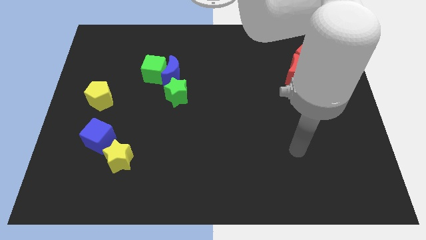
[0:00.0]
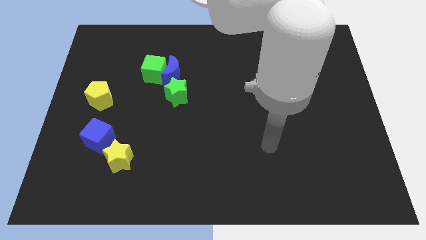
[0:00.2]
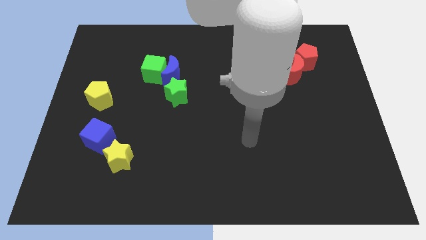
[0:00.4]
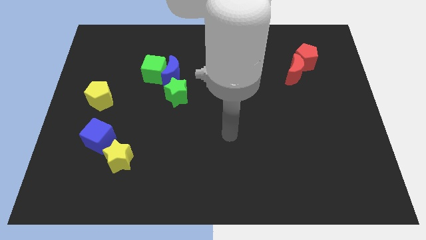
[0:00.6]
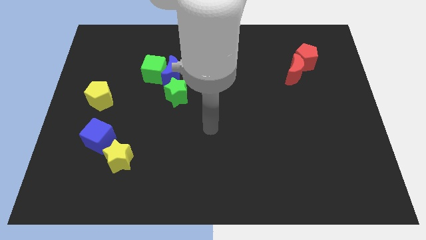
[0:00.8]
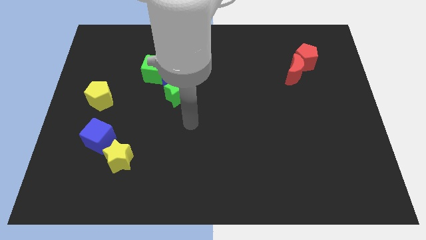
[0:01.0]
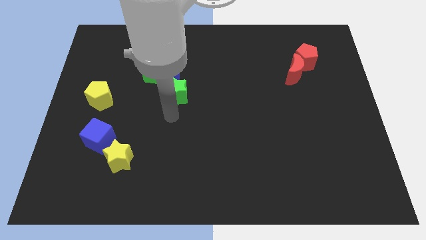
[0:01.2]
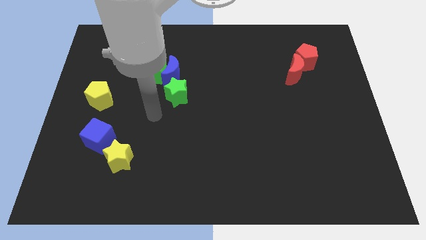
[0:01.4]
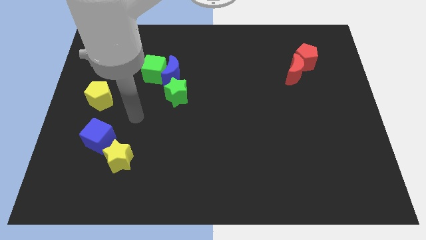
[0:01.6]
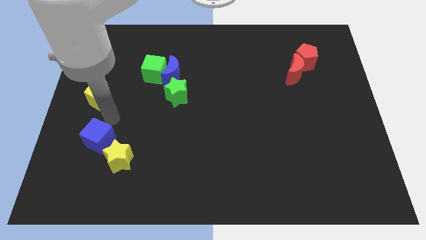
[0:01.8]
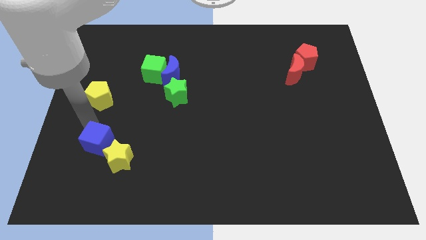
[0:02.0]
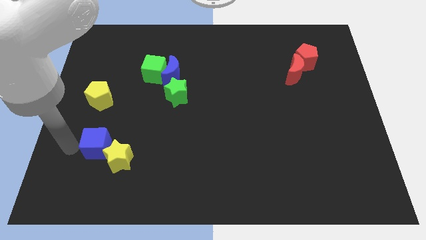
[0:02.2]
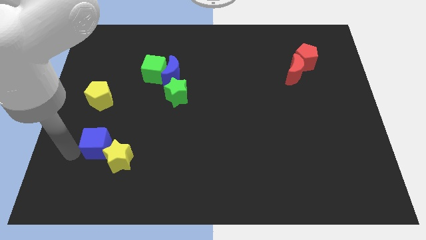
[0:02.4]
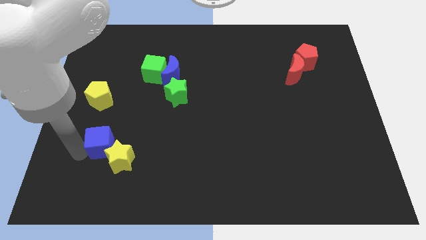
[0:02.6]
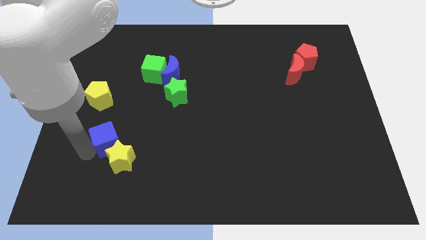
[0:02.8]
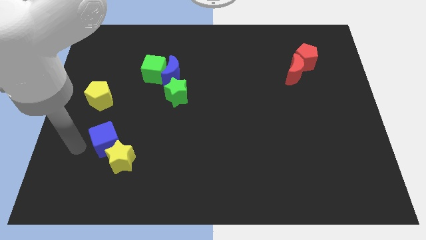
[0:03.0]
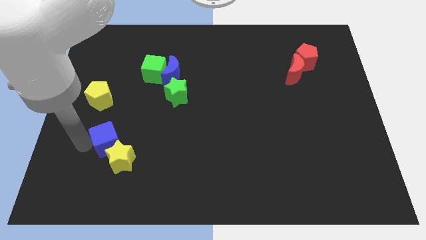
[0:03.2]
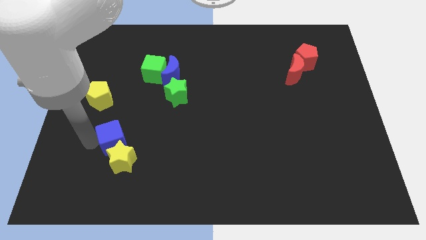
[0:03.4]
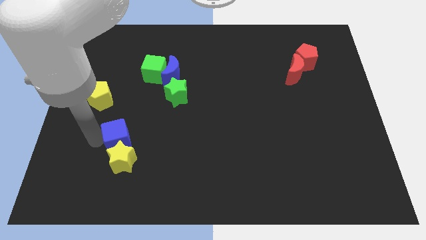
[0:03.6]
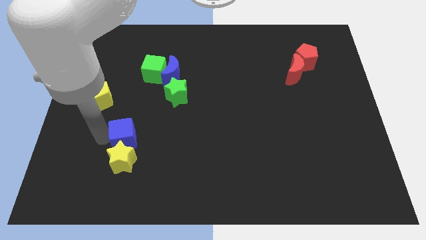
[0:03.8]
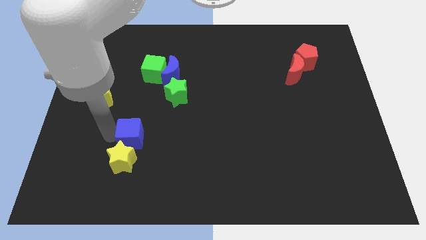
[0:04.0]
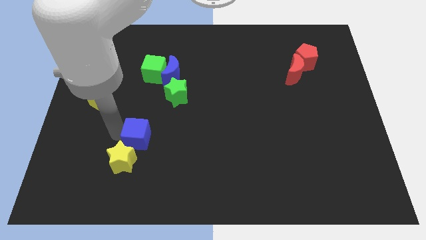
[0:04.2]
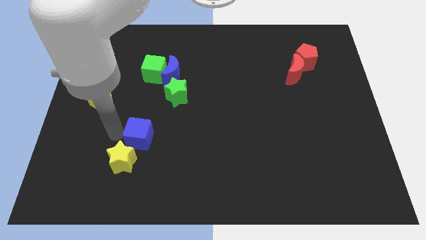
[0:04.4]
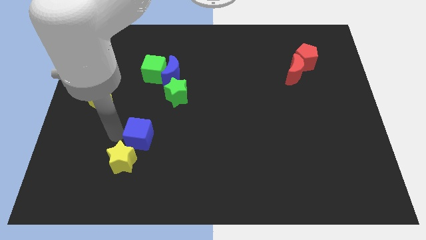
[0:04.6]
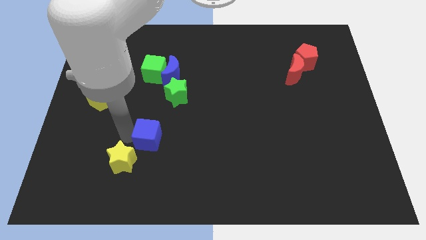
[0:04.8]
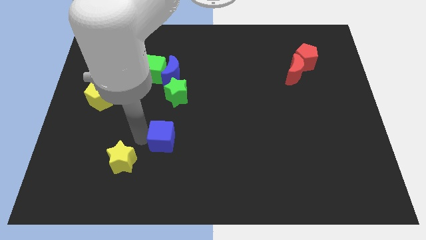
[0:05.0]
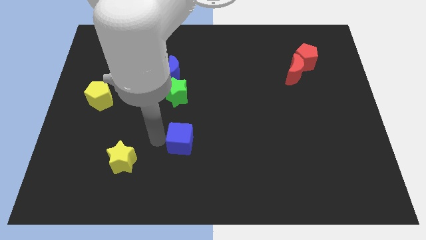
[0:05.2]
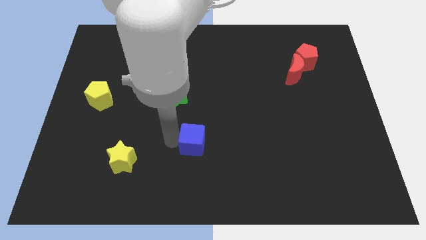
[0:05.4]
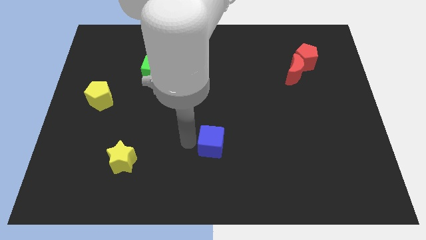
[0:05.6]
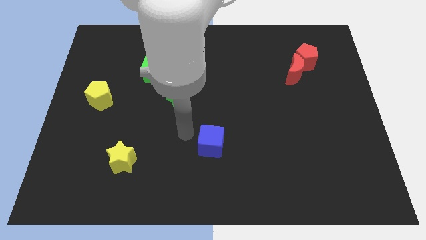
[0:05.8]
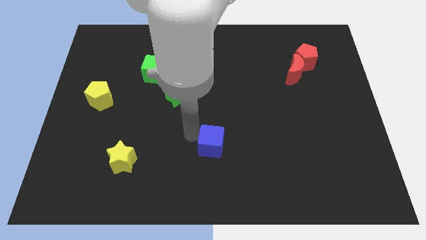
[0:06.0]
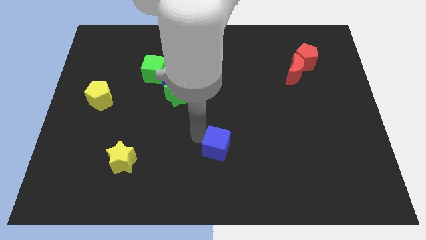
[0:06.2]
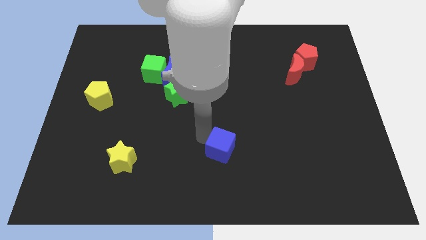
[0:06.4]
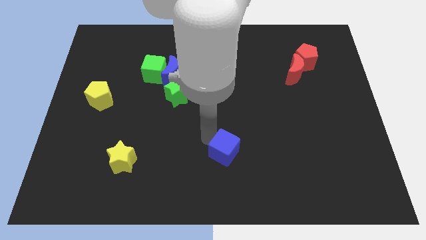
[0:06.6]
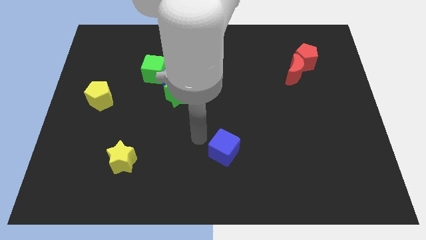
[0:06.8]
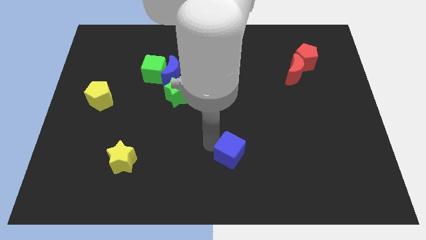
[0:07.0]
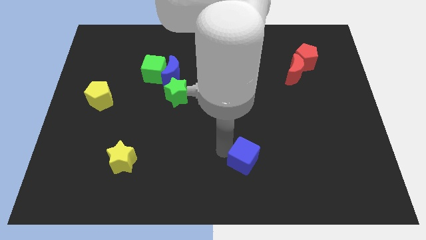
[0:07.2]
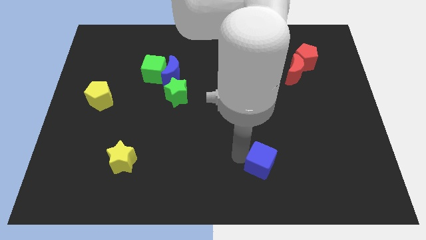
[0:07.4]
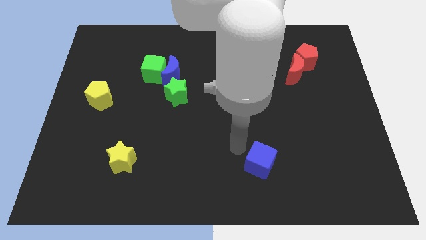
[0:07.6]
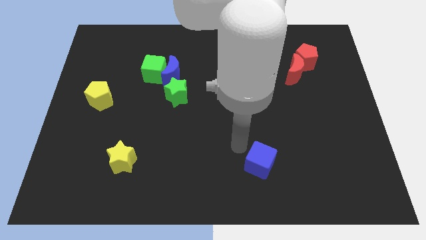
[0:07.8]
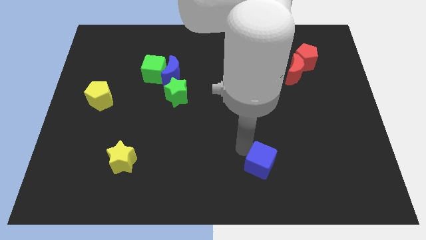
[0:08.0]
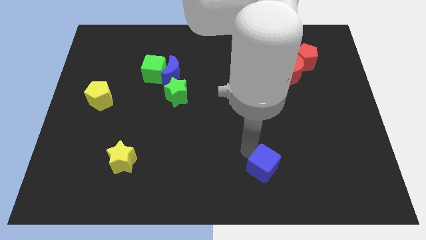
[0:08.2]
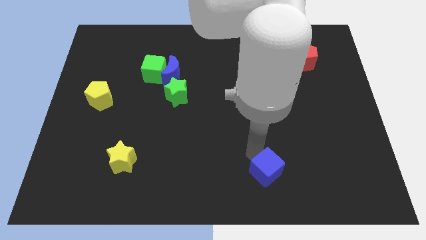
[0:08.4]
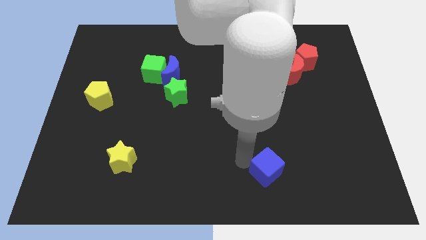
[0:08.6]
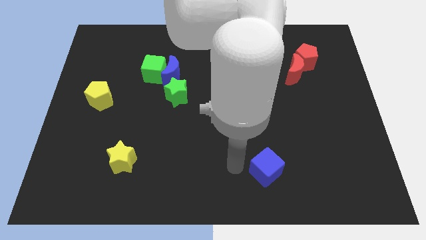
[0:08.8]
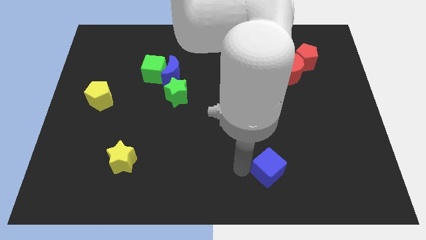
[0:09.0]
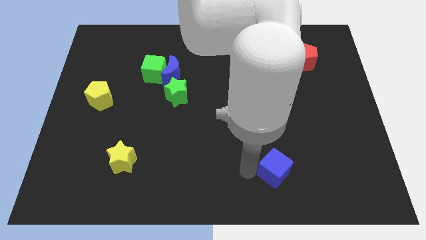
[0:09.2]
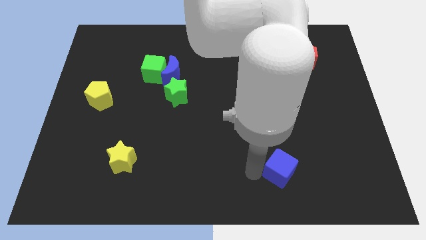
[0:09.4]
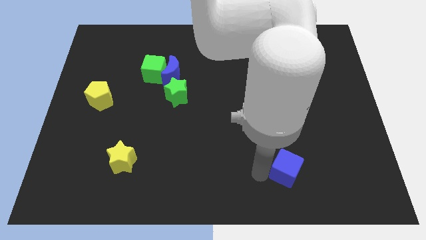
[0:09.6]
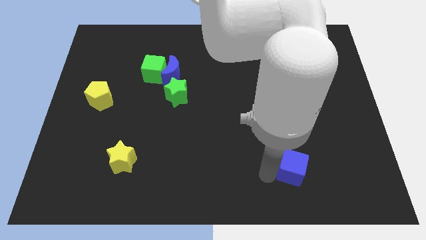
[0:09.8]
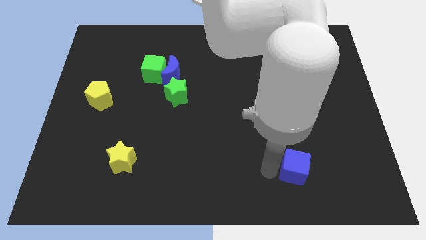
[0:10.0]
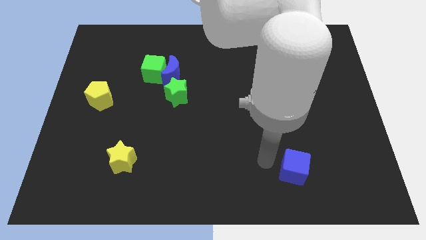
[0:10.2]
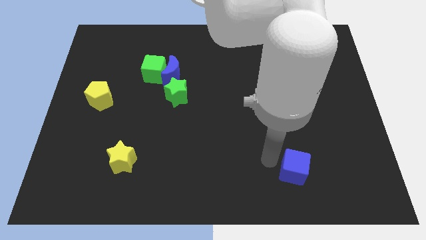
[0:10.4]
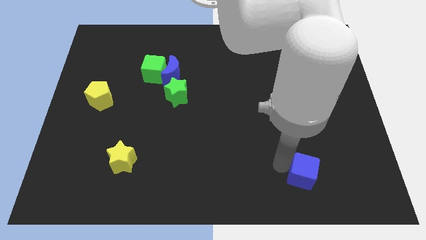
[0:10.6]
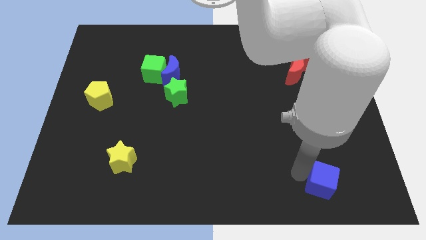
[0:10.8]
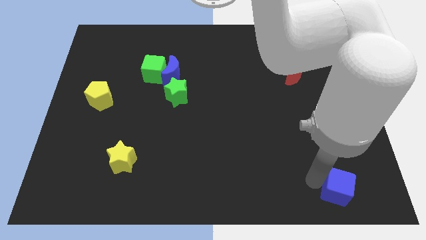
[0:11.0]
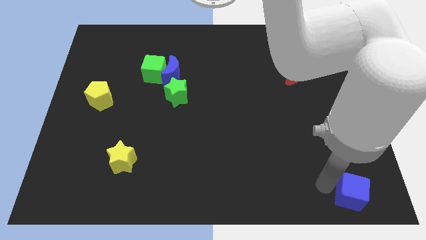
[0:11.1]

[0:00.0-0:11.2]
push the blue cube to the bottom right of the board

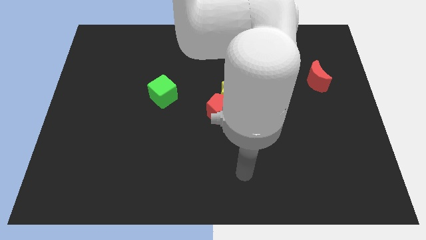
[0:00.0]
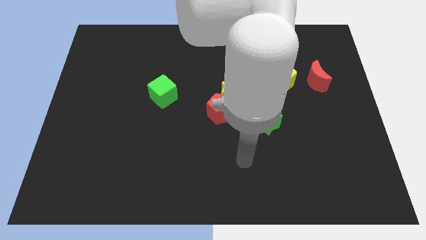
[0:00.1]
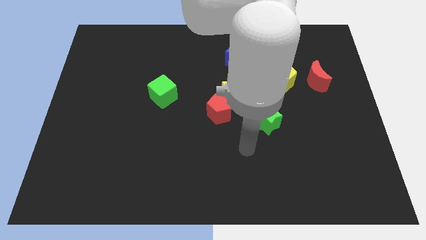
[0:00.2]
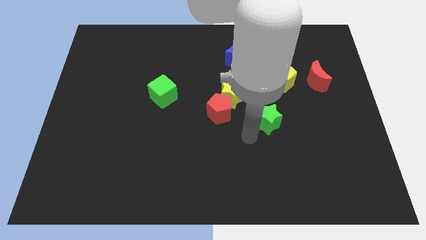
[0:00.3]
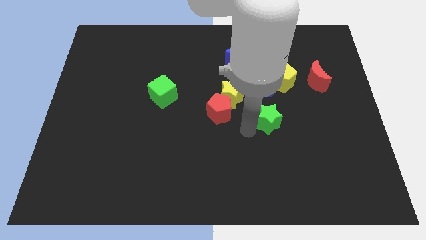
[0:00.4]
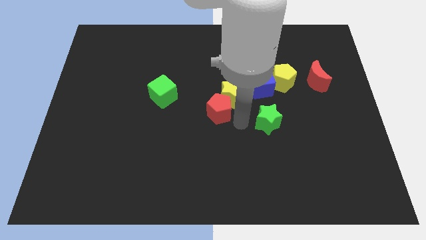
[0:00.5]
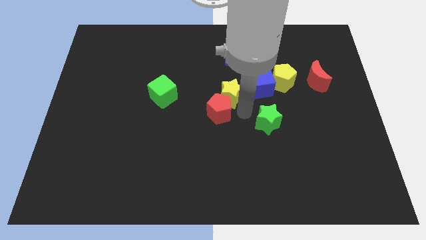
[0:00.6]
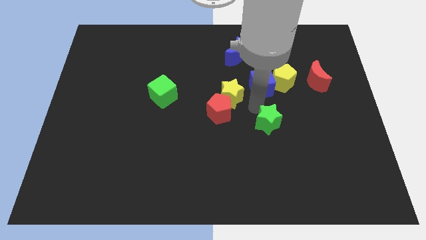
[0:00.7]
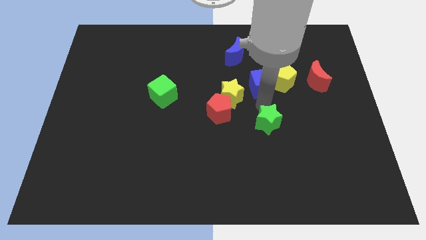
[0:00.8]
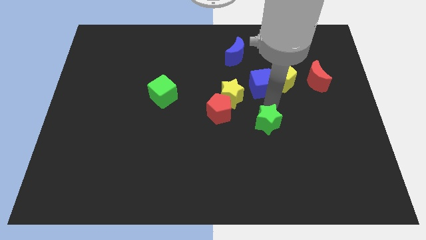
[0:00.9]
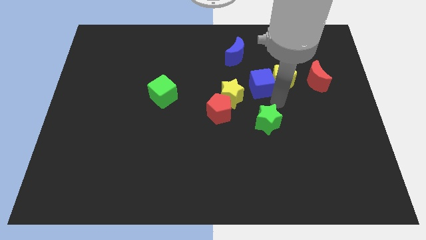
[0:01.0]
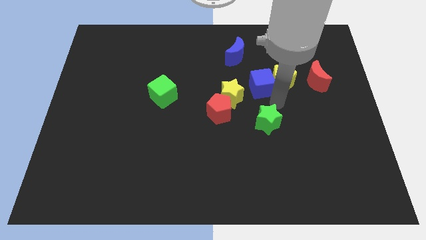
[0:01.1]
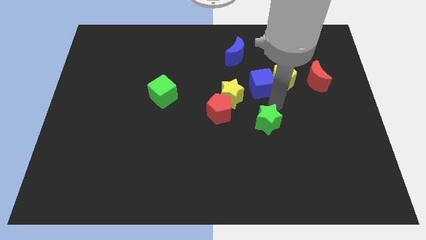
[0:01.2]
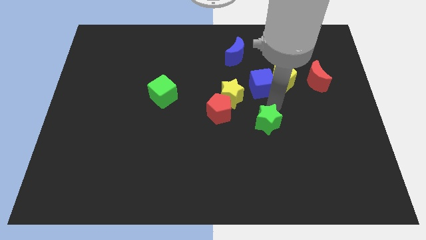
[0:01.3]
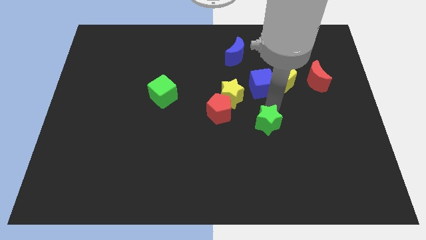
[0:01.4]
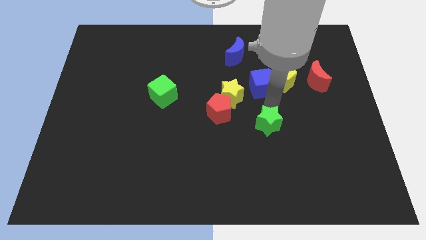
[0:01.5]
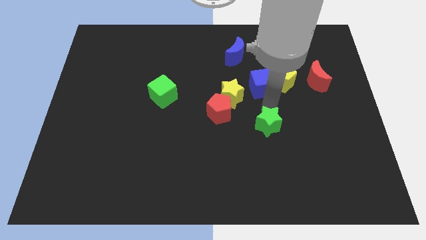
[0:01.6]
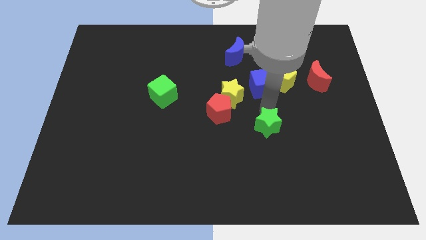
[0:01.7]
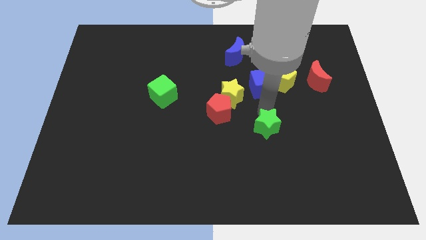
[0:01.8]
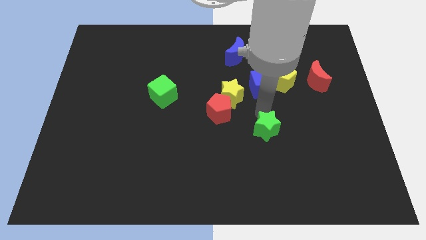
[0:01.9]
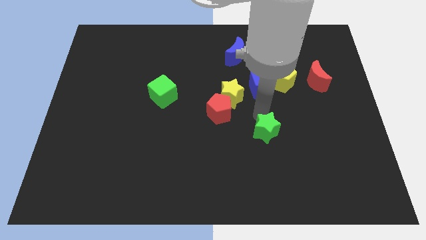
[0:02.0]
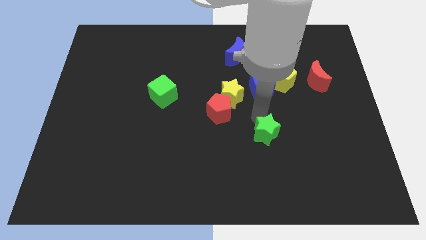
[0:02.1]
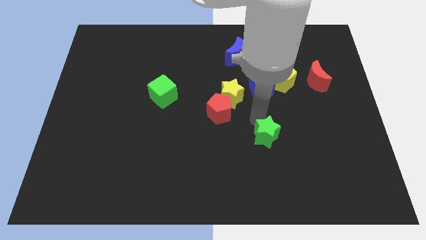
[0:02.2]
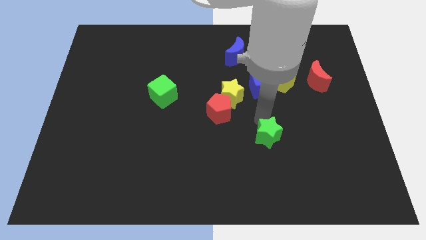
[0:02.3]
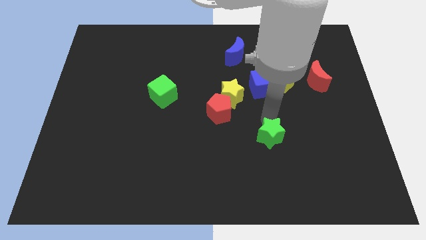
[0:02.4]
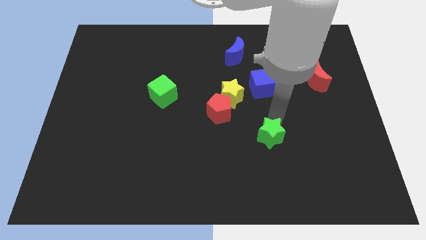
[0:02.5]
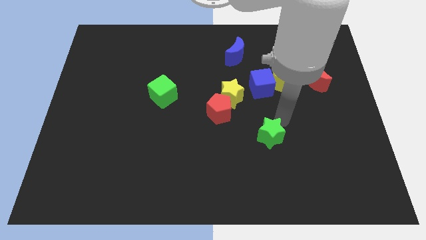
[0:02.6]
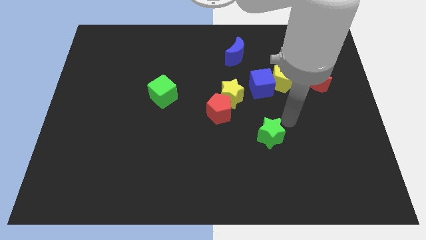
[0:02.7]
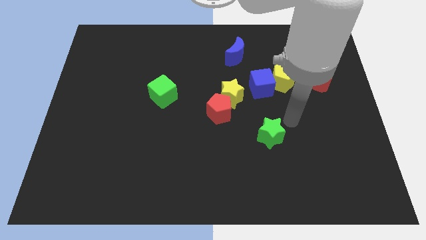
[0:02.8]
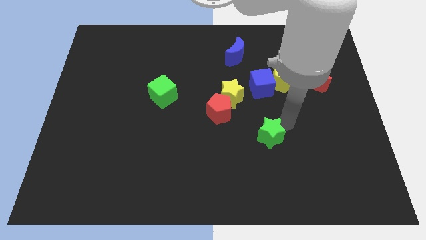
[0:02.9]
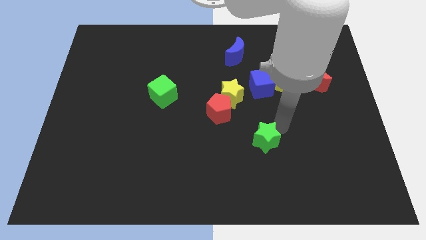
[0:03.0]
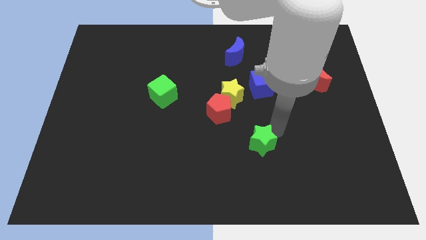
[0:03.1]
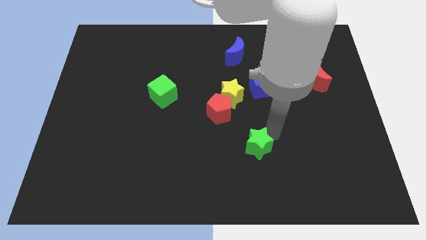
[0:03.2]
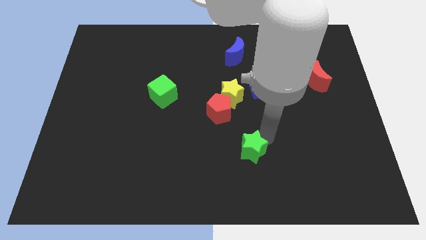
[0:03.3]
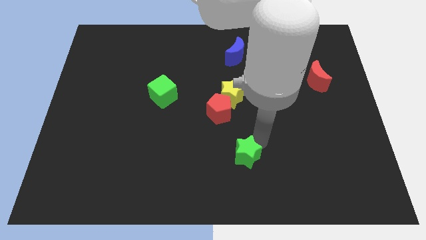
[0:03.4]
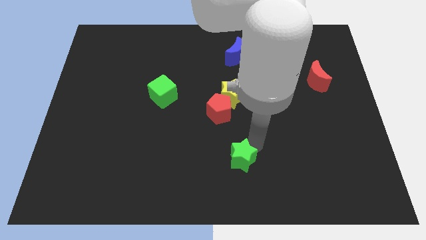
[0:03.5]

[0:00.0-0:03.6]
push the green star to the bottom side
